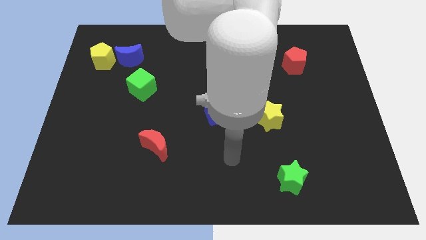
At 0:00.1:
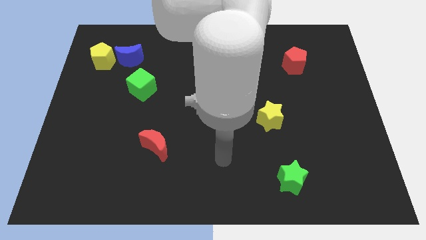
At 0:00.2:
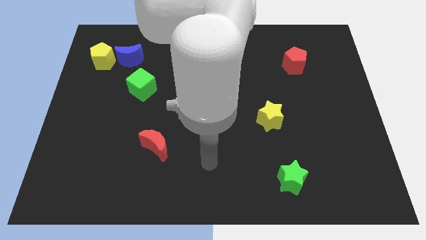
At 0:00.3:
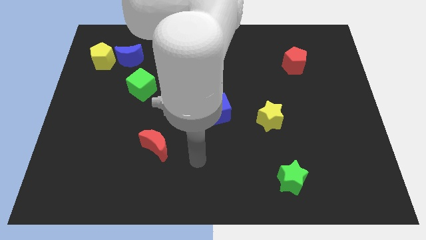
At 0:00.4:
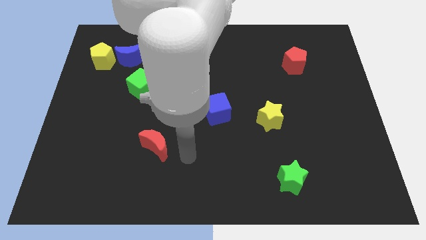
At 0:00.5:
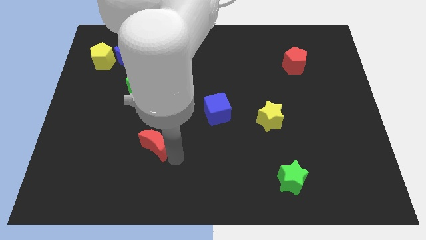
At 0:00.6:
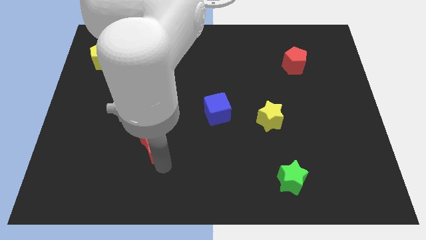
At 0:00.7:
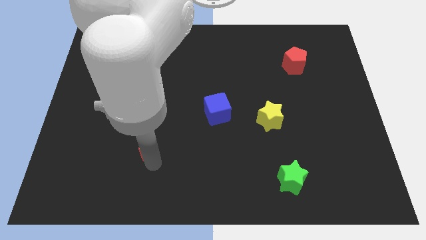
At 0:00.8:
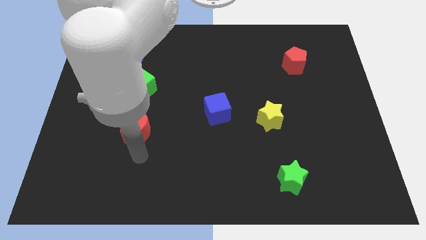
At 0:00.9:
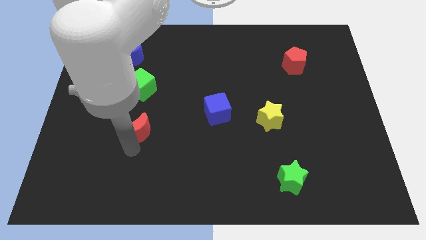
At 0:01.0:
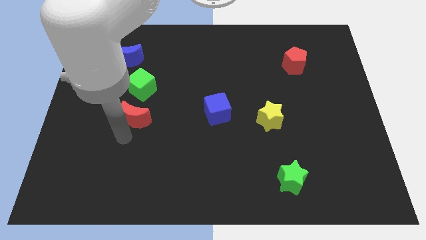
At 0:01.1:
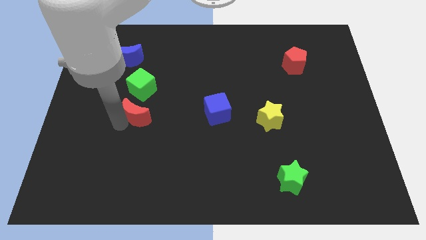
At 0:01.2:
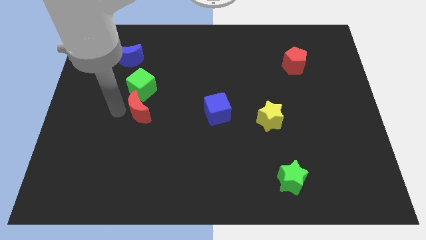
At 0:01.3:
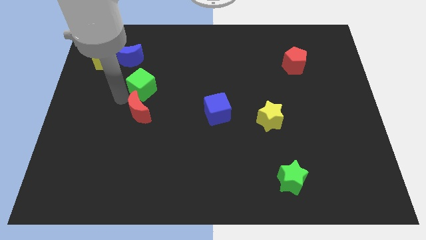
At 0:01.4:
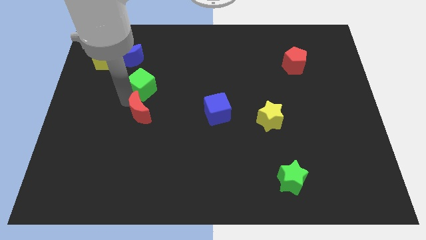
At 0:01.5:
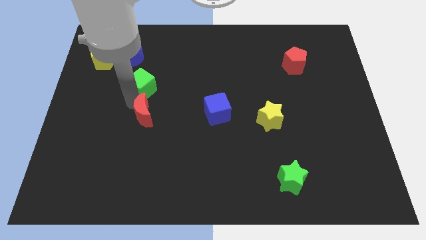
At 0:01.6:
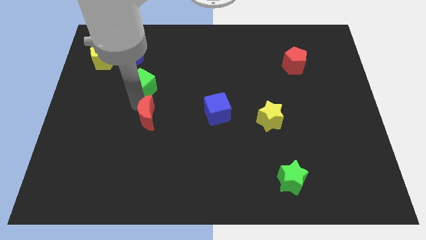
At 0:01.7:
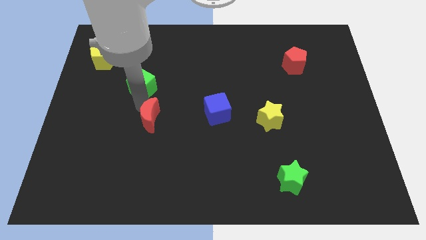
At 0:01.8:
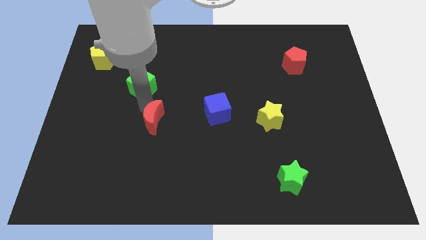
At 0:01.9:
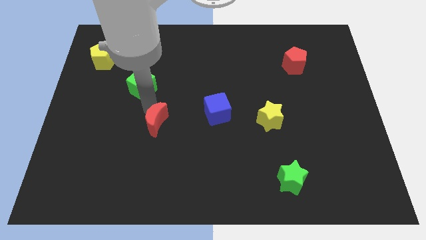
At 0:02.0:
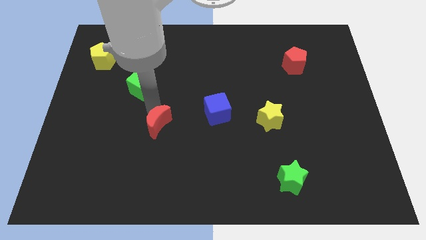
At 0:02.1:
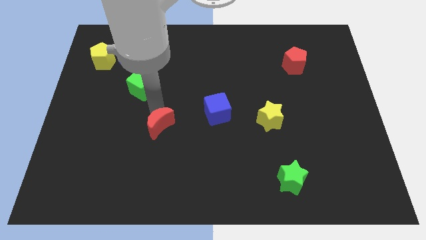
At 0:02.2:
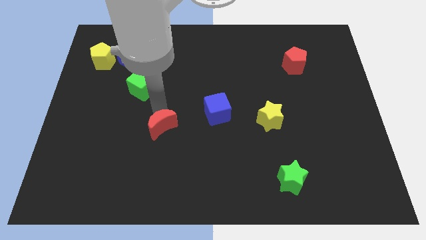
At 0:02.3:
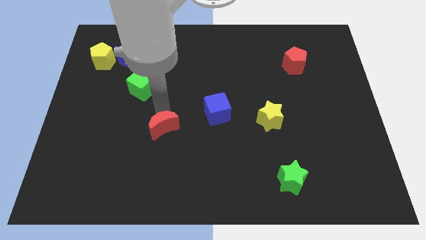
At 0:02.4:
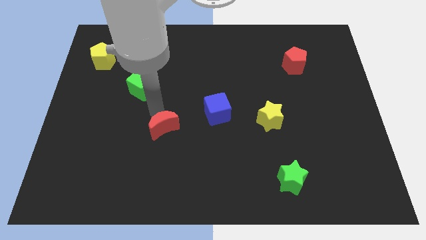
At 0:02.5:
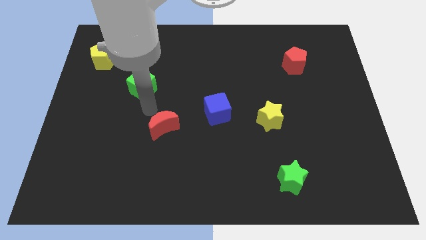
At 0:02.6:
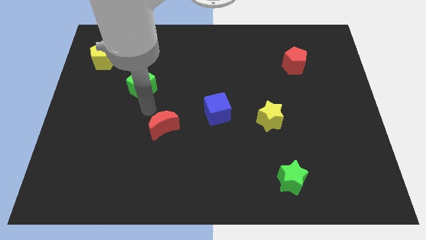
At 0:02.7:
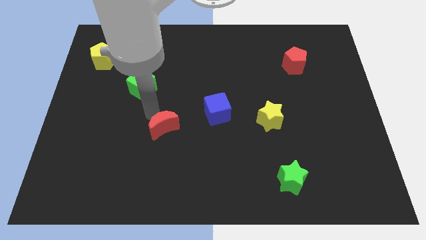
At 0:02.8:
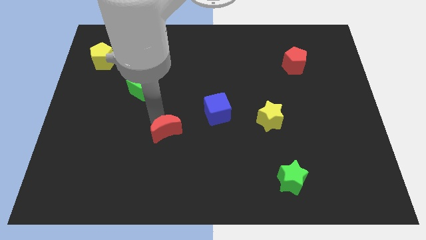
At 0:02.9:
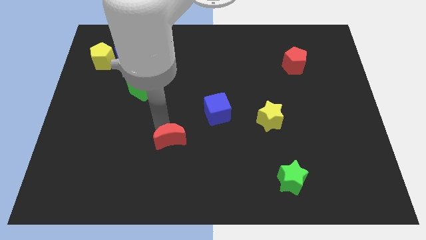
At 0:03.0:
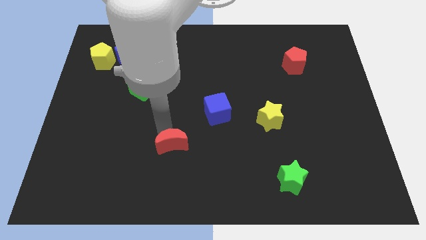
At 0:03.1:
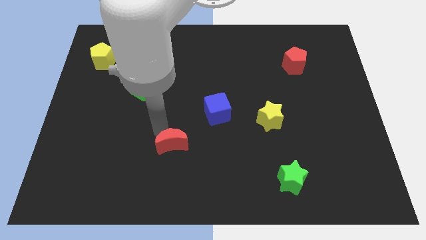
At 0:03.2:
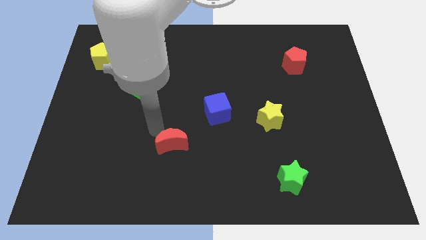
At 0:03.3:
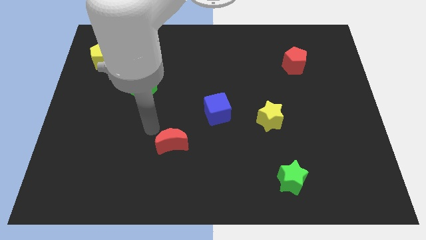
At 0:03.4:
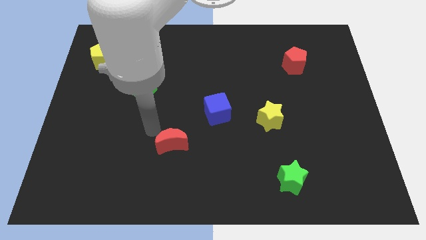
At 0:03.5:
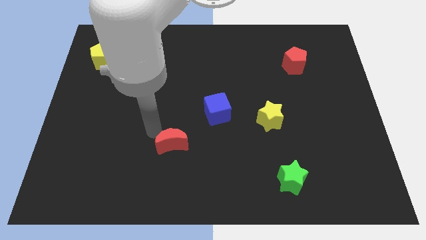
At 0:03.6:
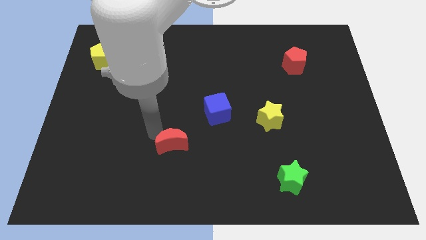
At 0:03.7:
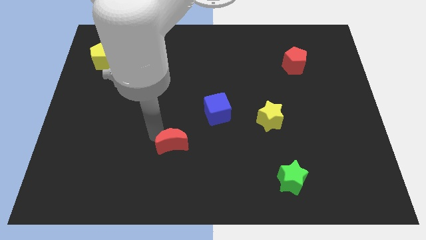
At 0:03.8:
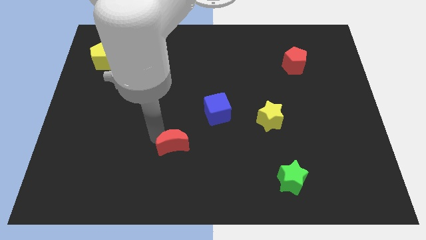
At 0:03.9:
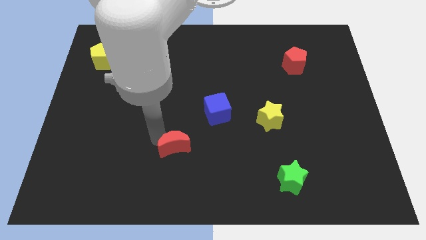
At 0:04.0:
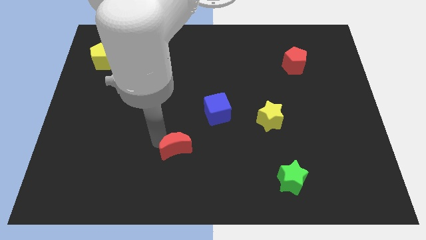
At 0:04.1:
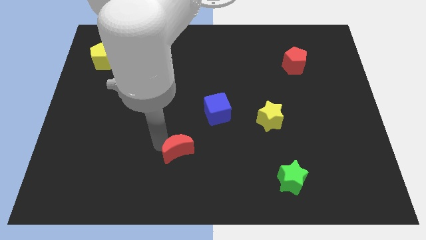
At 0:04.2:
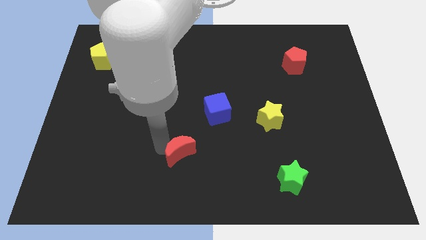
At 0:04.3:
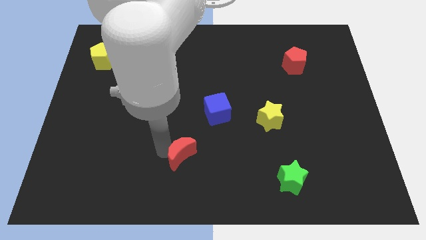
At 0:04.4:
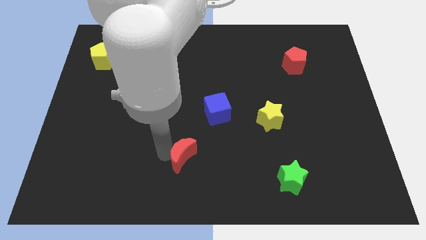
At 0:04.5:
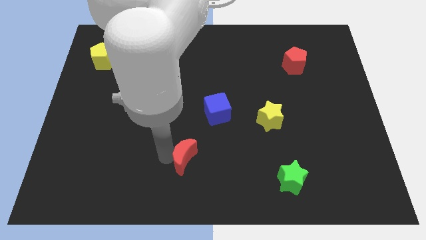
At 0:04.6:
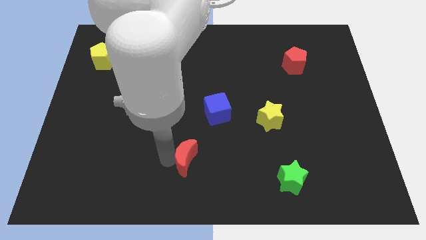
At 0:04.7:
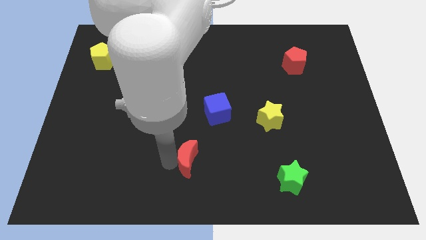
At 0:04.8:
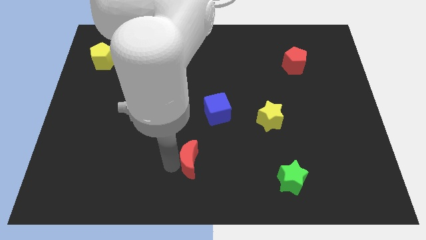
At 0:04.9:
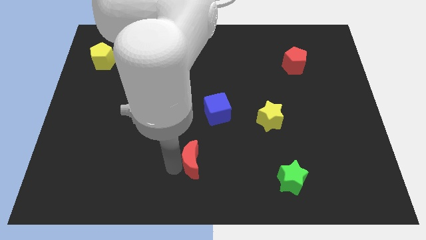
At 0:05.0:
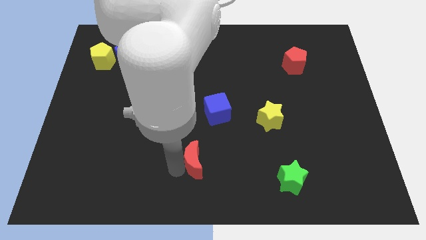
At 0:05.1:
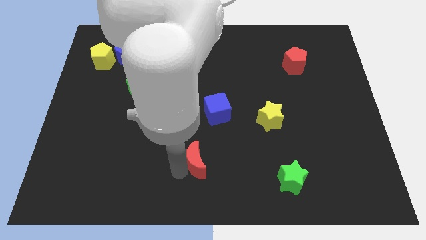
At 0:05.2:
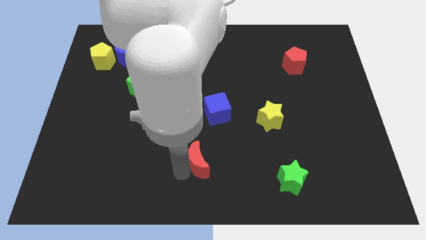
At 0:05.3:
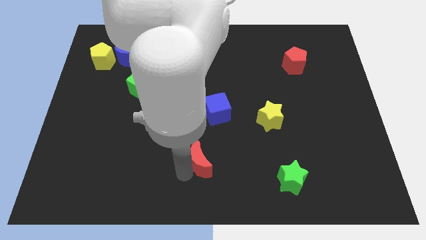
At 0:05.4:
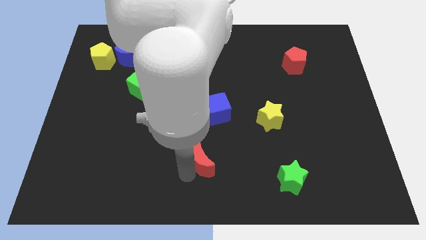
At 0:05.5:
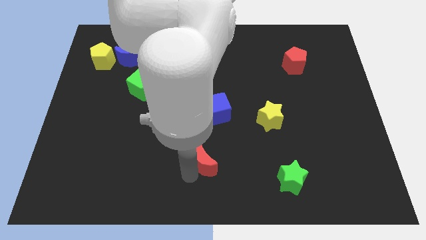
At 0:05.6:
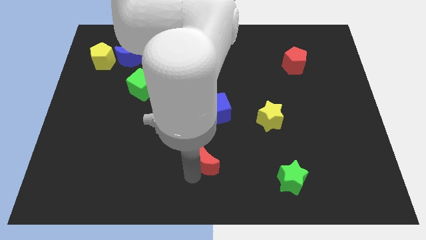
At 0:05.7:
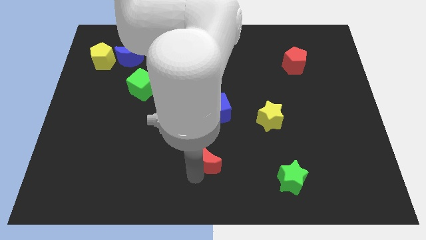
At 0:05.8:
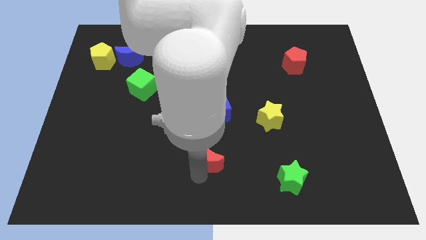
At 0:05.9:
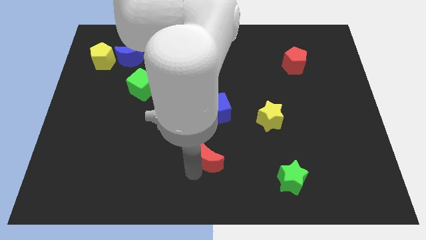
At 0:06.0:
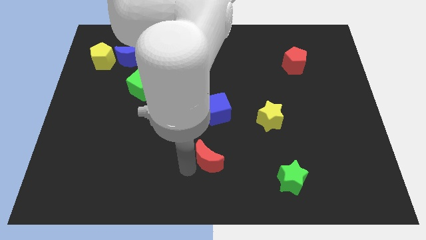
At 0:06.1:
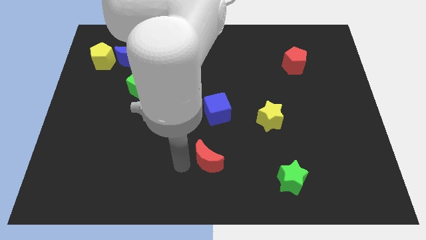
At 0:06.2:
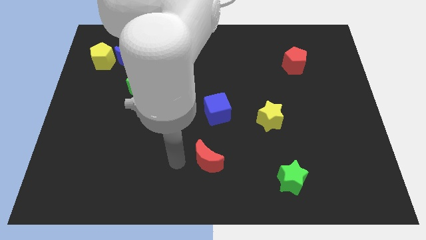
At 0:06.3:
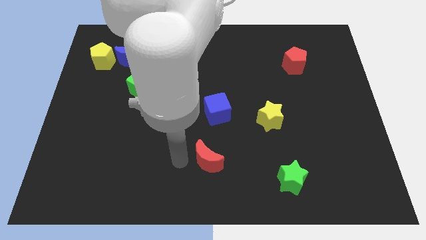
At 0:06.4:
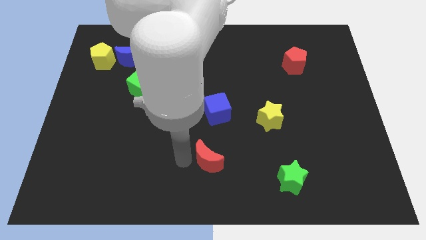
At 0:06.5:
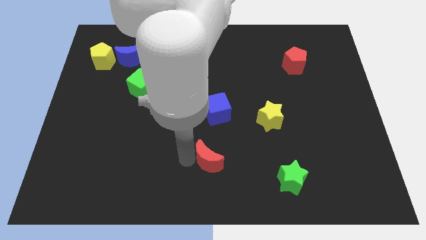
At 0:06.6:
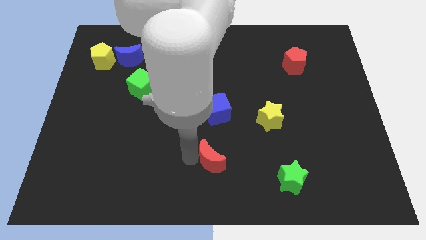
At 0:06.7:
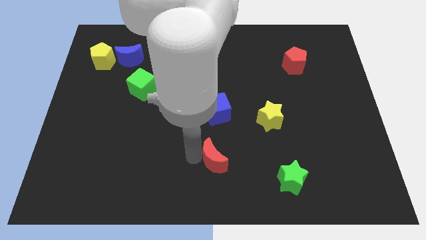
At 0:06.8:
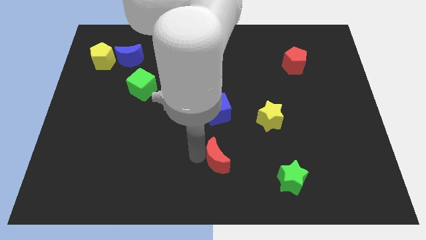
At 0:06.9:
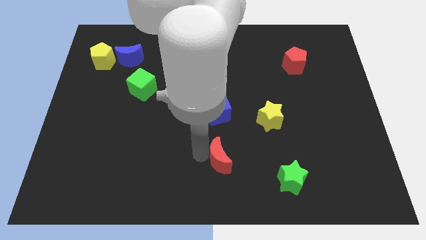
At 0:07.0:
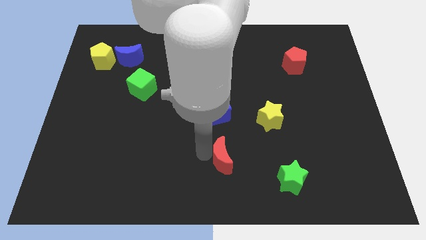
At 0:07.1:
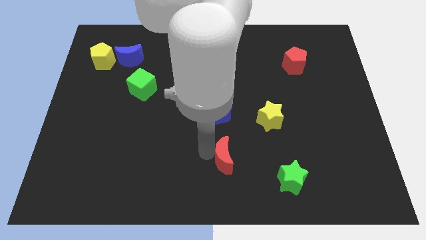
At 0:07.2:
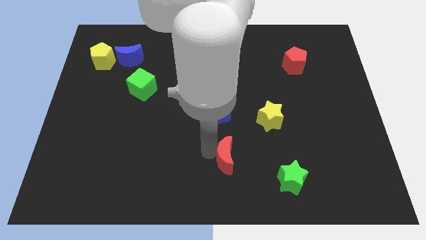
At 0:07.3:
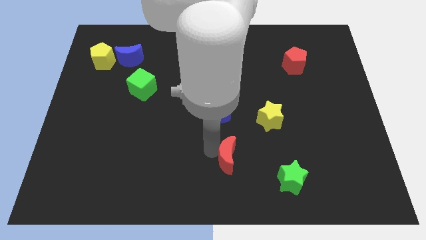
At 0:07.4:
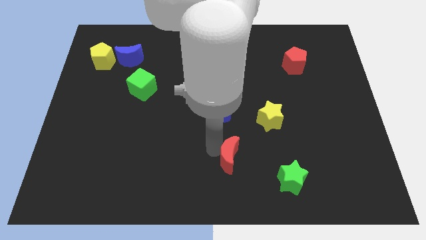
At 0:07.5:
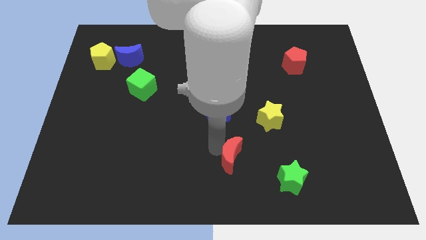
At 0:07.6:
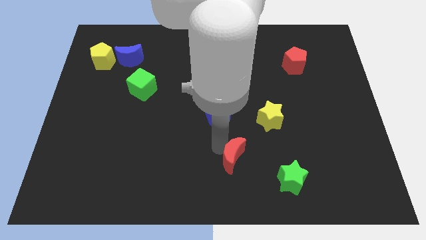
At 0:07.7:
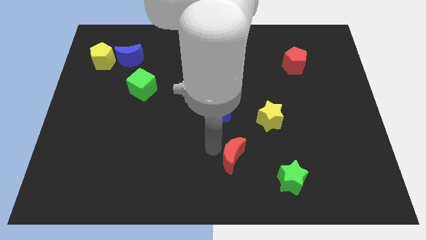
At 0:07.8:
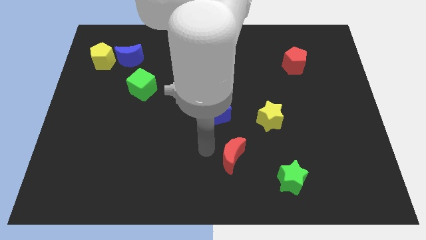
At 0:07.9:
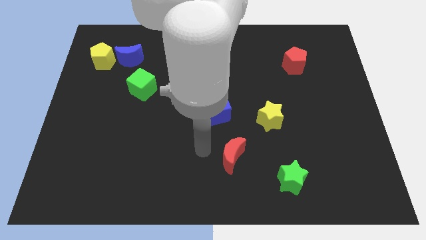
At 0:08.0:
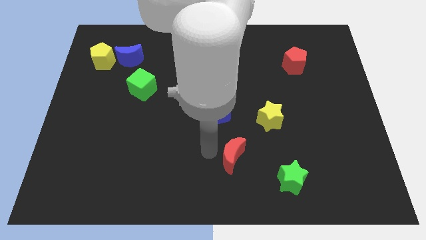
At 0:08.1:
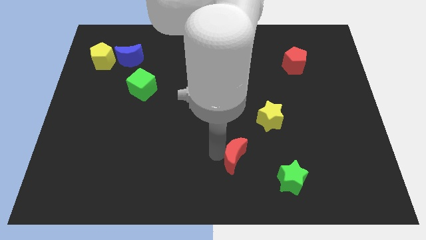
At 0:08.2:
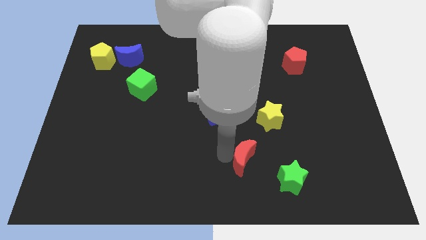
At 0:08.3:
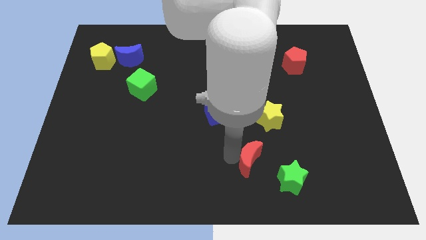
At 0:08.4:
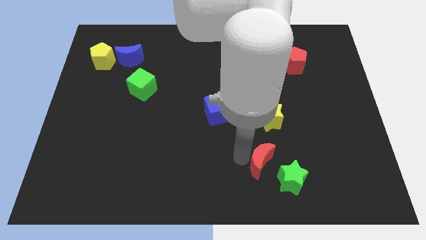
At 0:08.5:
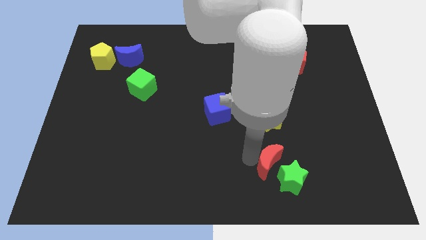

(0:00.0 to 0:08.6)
put the red moon next to the green star
